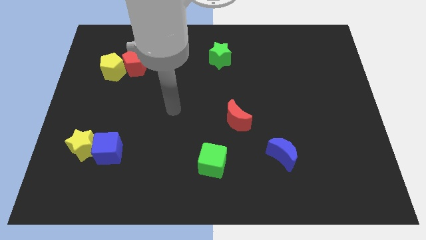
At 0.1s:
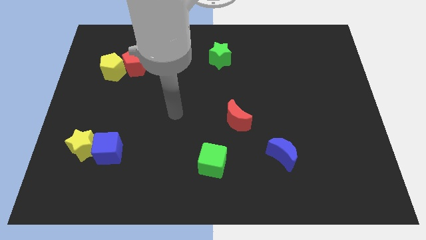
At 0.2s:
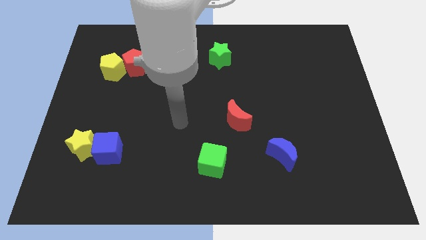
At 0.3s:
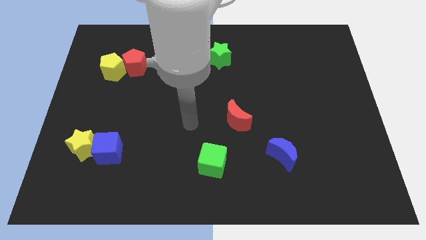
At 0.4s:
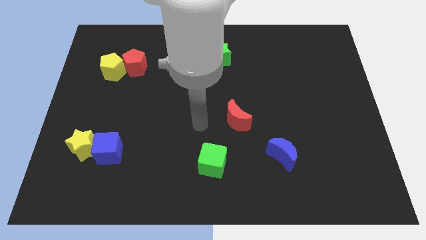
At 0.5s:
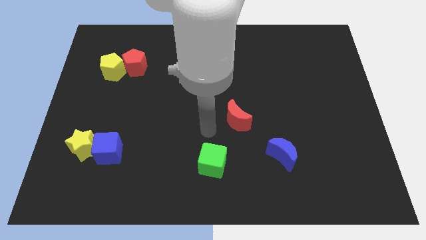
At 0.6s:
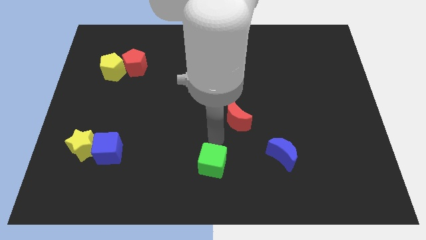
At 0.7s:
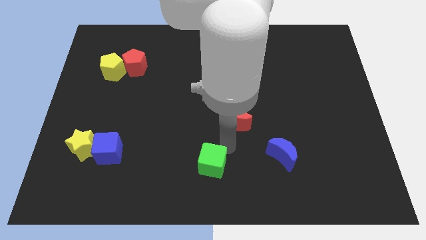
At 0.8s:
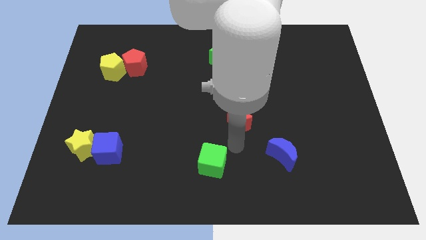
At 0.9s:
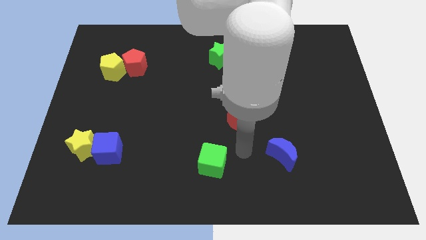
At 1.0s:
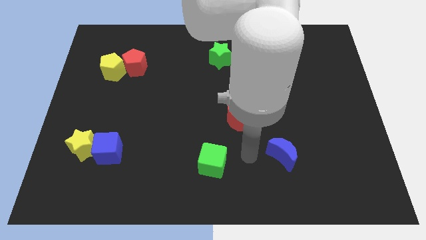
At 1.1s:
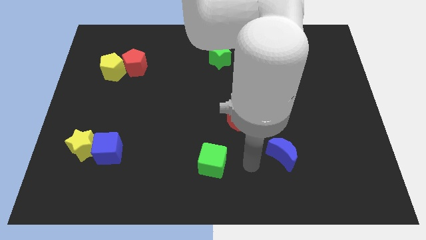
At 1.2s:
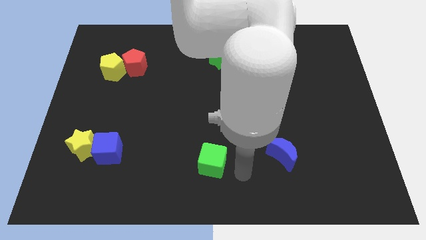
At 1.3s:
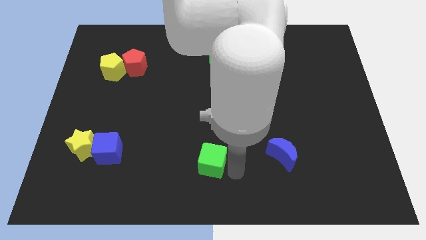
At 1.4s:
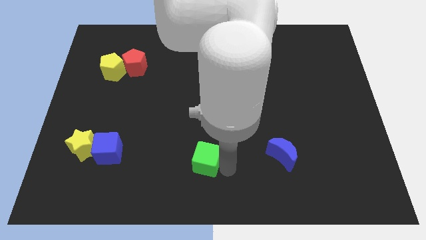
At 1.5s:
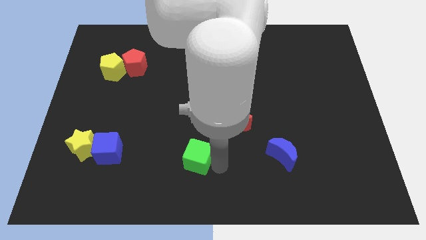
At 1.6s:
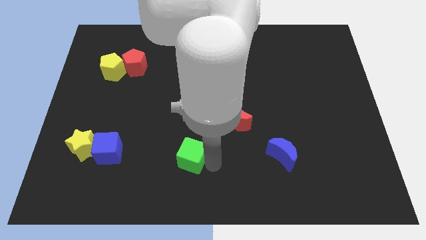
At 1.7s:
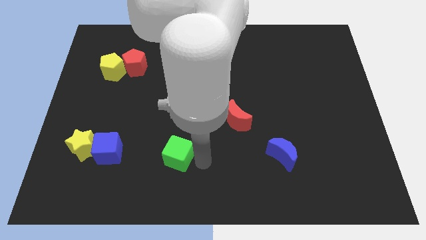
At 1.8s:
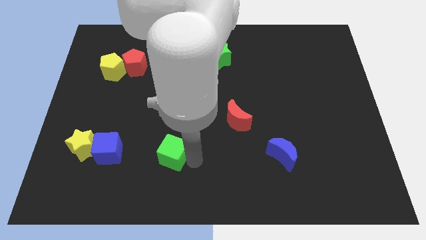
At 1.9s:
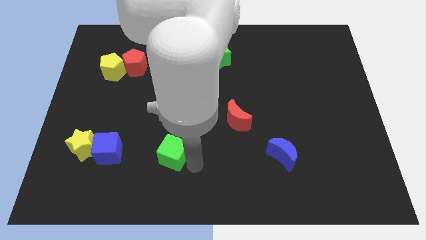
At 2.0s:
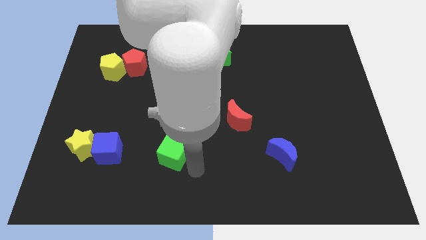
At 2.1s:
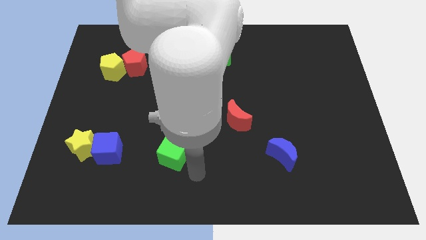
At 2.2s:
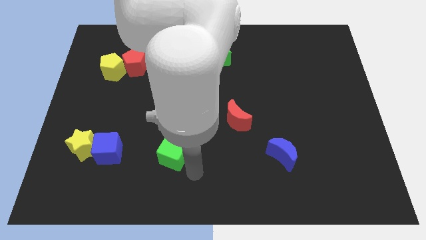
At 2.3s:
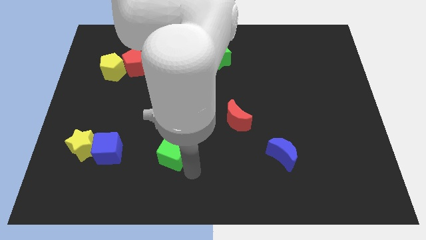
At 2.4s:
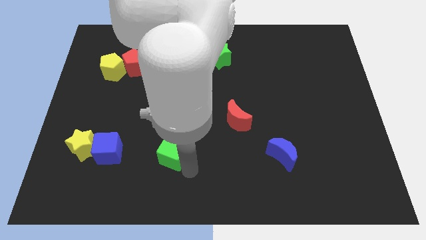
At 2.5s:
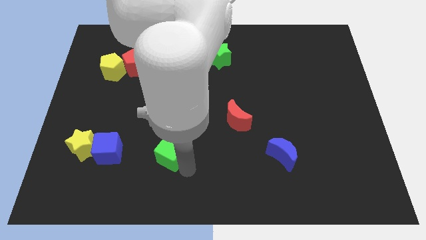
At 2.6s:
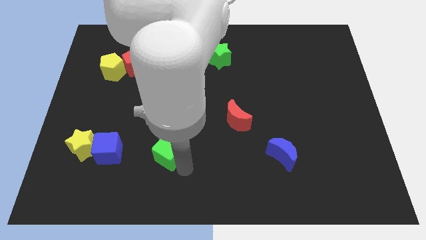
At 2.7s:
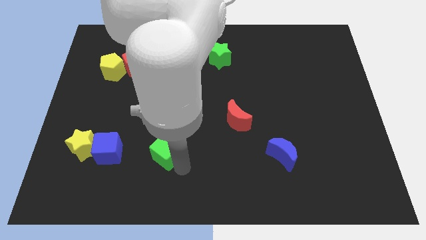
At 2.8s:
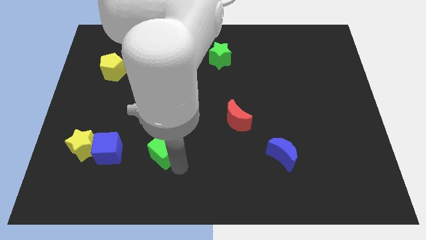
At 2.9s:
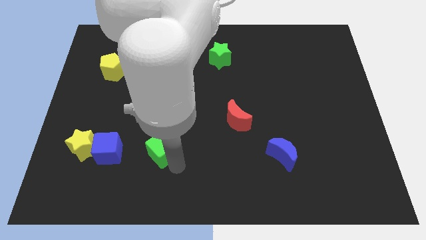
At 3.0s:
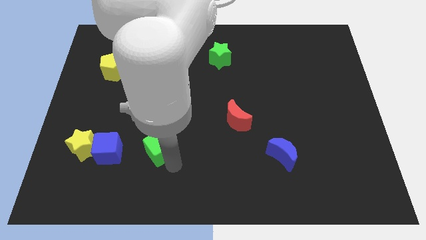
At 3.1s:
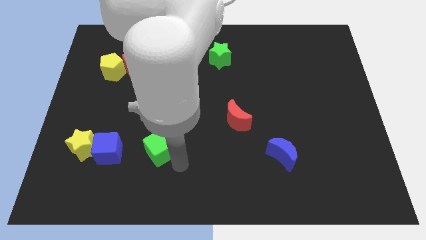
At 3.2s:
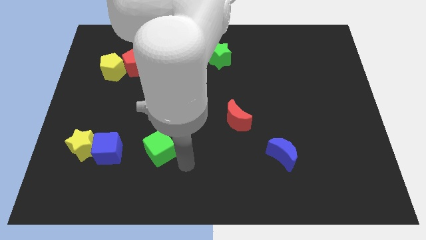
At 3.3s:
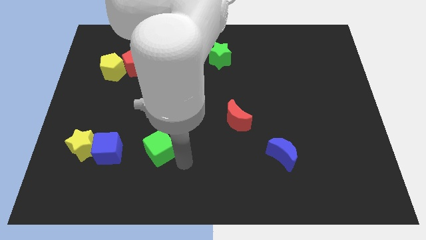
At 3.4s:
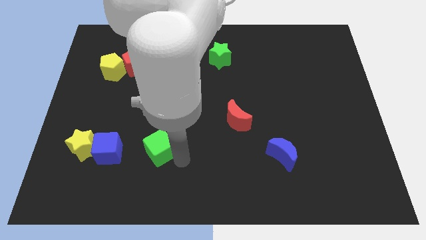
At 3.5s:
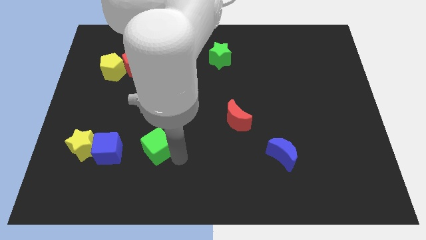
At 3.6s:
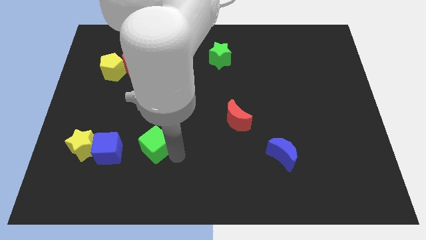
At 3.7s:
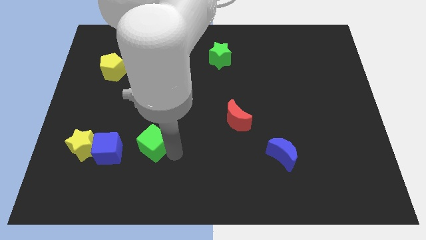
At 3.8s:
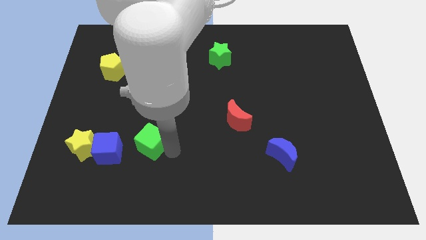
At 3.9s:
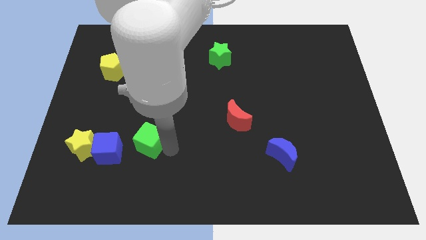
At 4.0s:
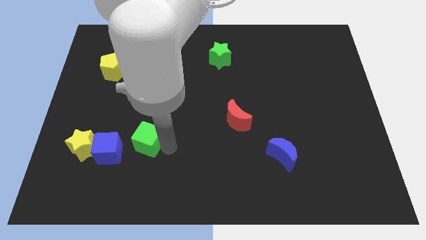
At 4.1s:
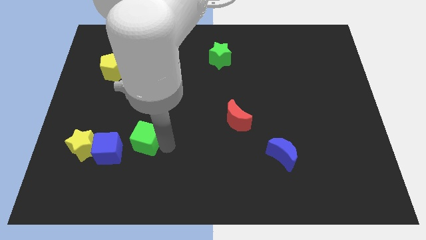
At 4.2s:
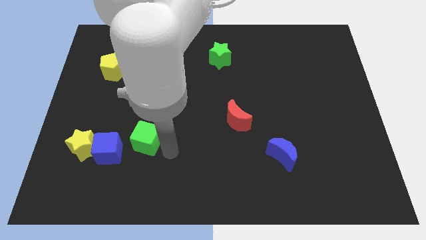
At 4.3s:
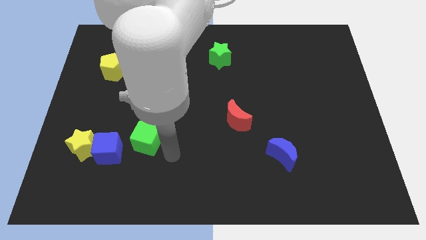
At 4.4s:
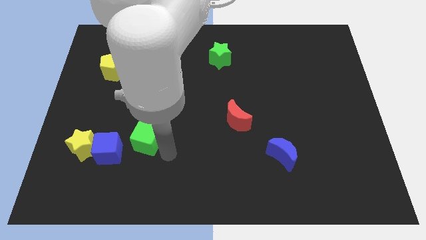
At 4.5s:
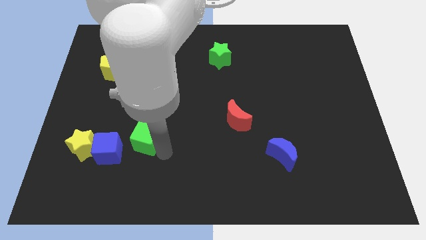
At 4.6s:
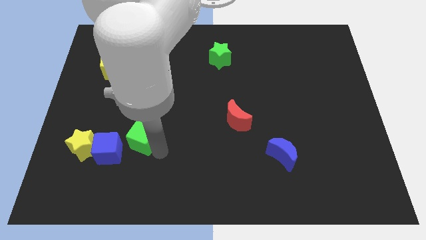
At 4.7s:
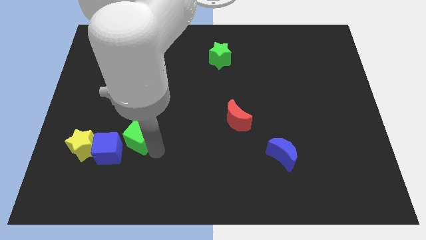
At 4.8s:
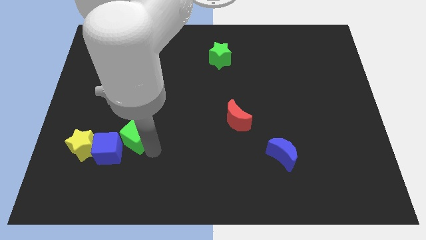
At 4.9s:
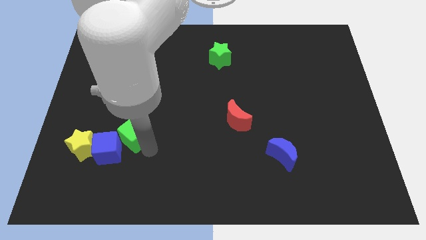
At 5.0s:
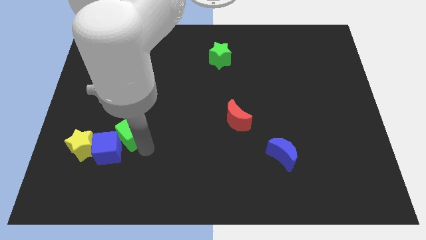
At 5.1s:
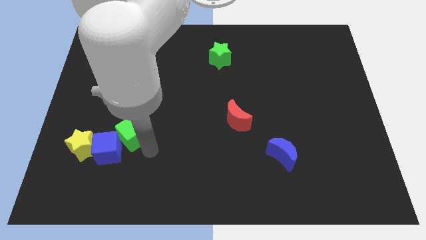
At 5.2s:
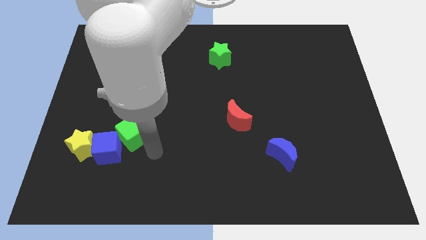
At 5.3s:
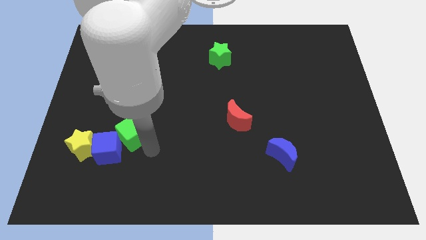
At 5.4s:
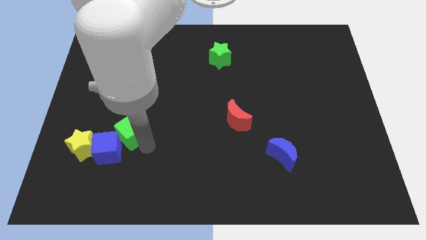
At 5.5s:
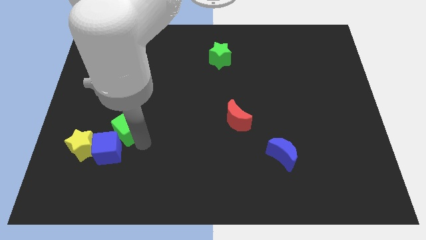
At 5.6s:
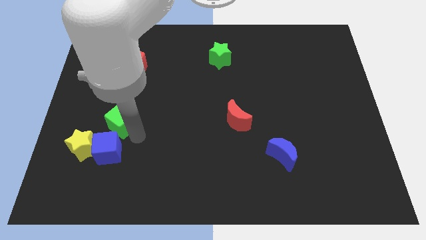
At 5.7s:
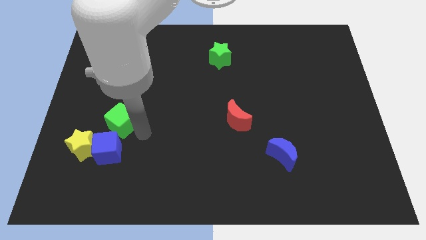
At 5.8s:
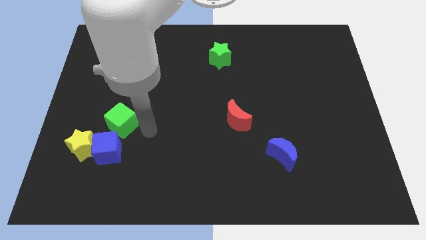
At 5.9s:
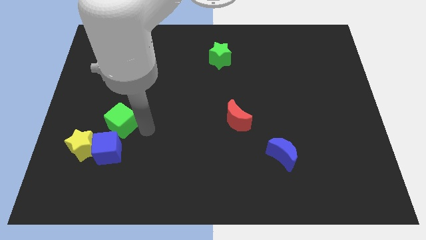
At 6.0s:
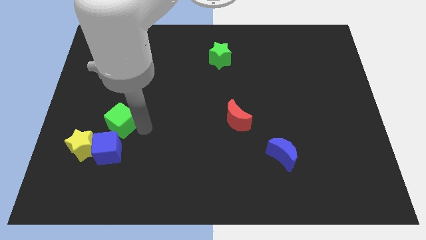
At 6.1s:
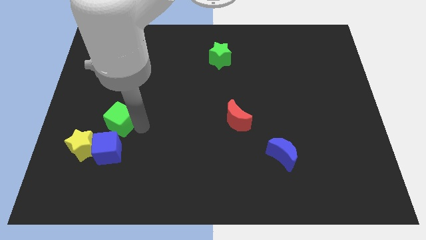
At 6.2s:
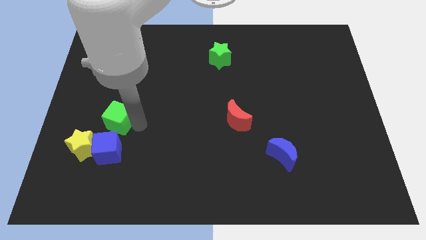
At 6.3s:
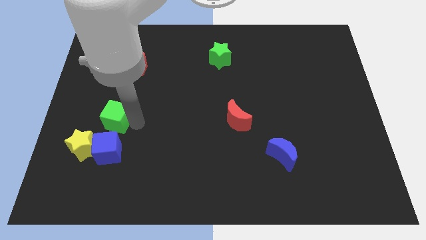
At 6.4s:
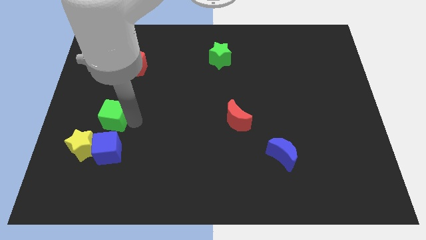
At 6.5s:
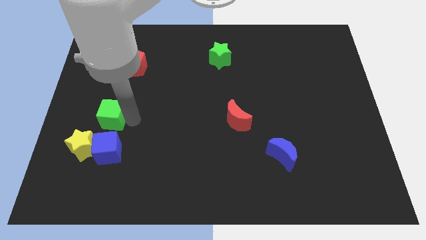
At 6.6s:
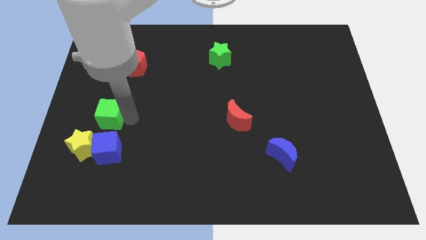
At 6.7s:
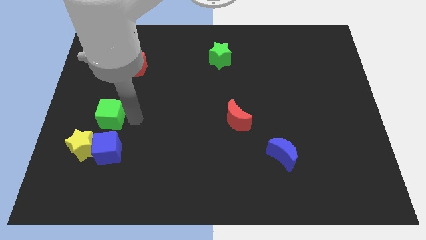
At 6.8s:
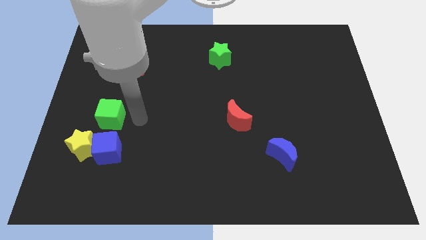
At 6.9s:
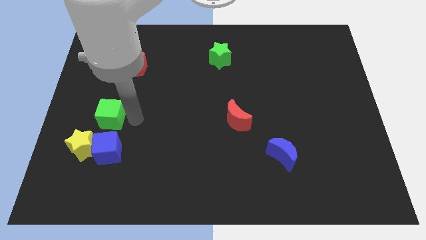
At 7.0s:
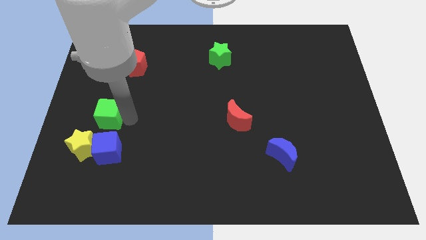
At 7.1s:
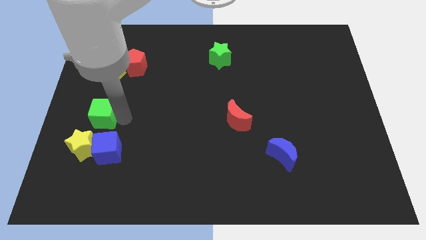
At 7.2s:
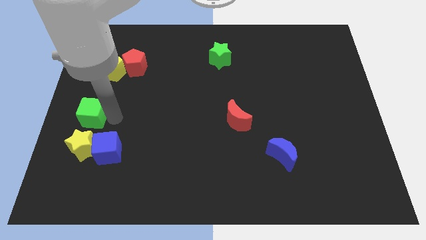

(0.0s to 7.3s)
slide the green cube to the left side
